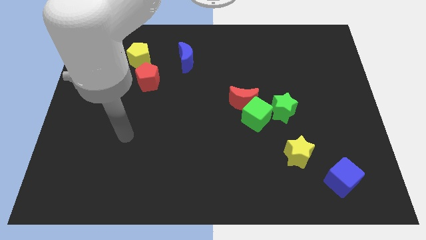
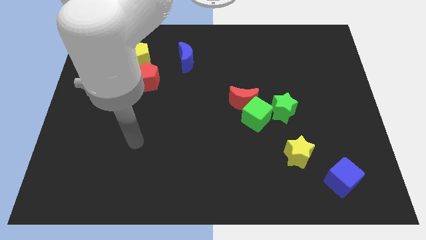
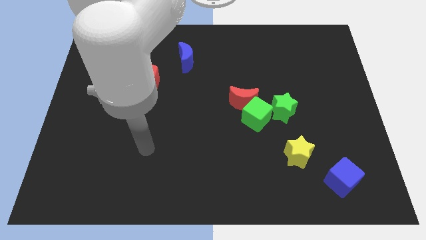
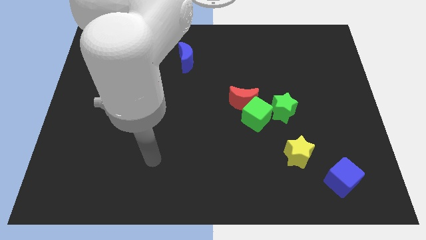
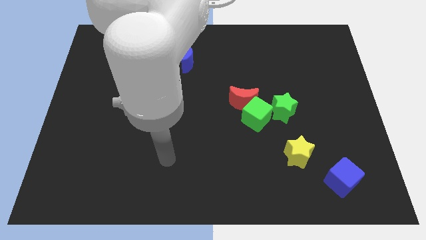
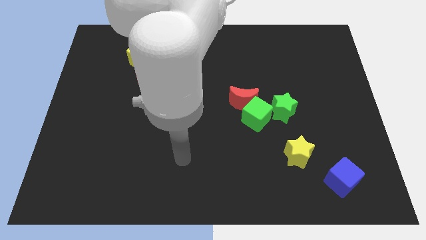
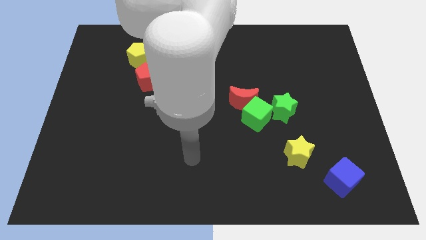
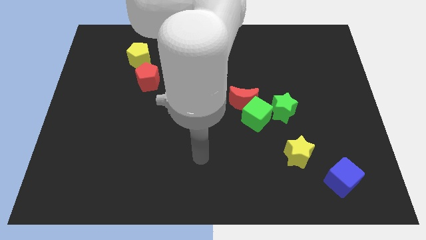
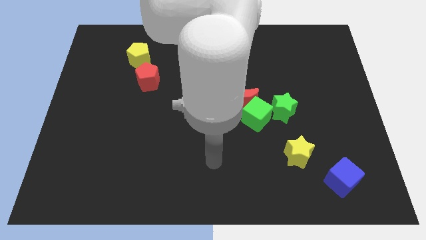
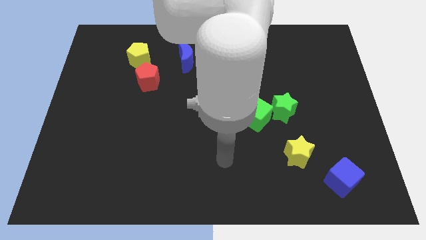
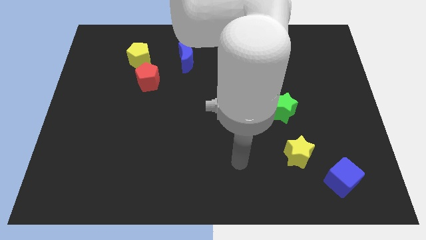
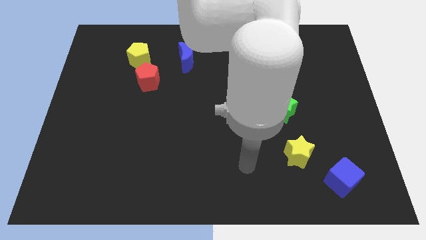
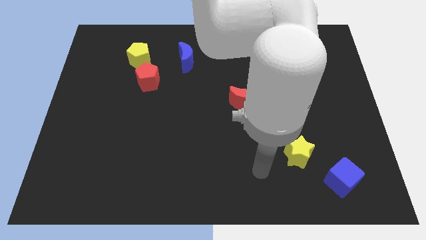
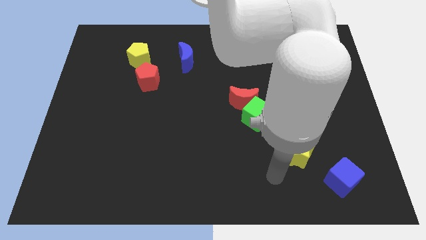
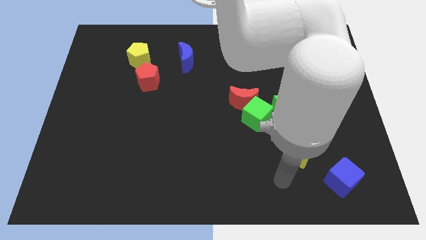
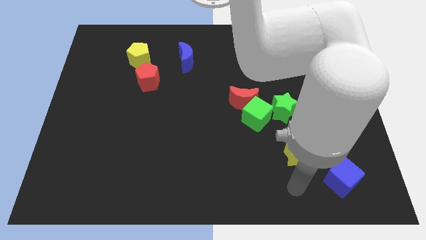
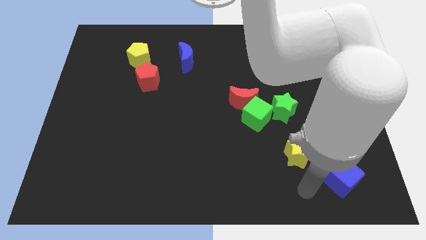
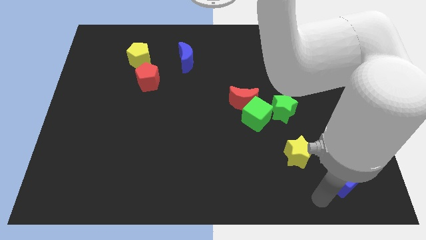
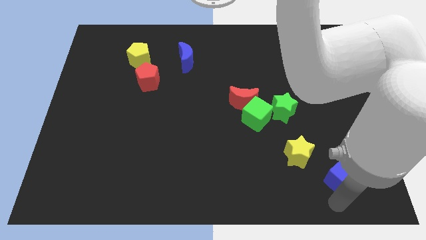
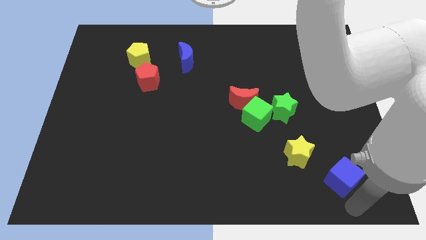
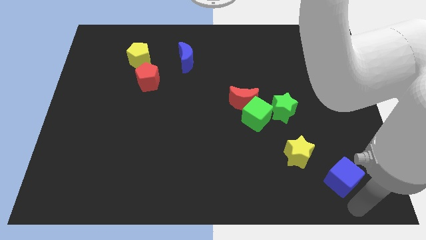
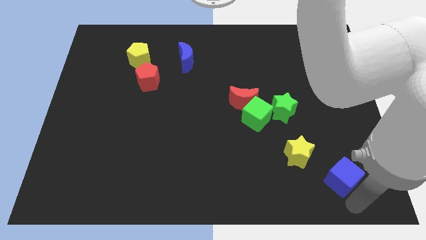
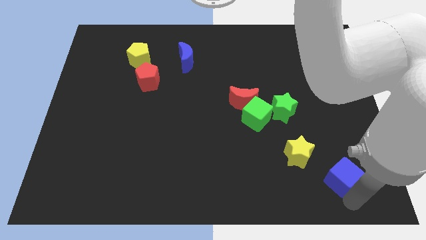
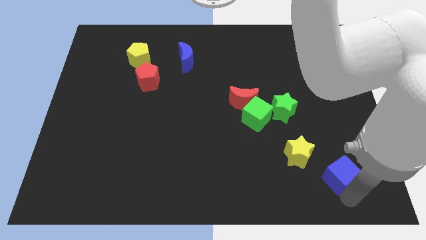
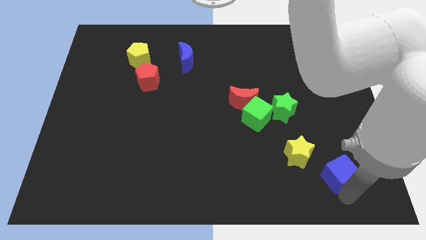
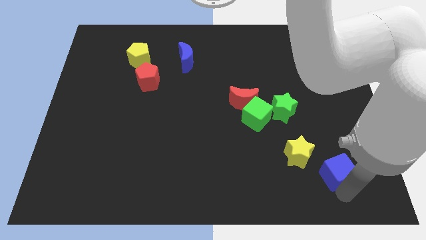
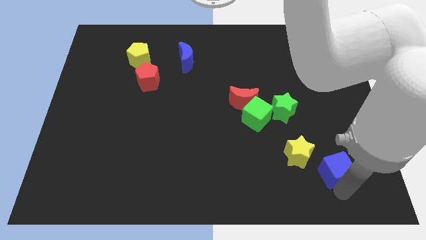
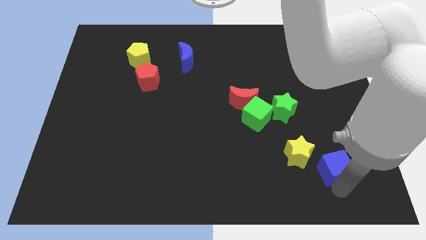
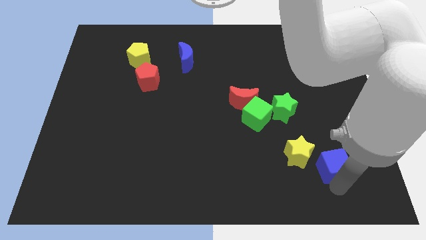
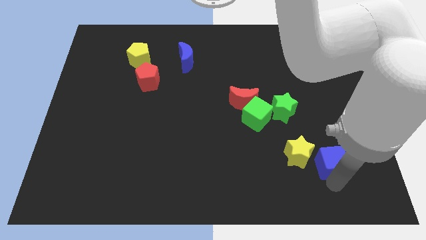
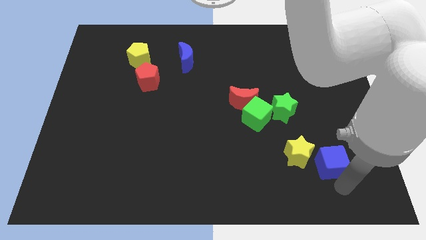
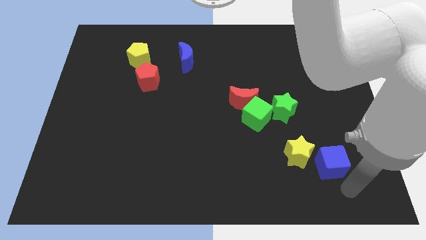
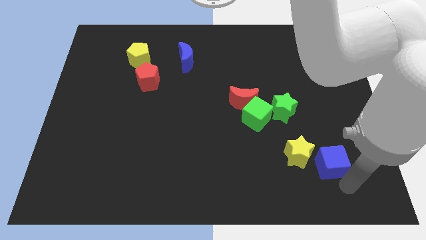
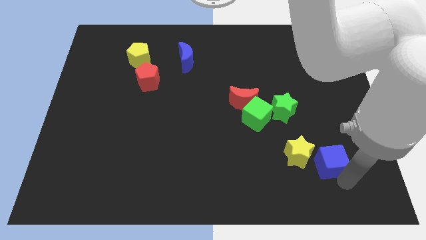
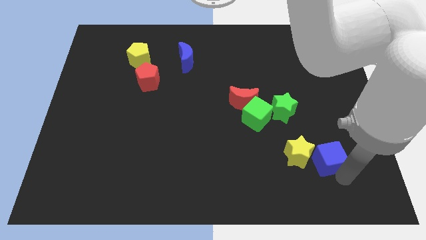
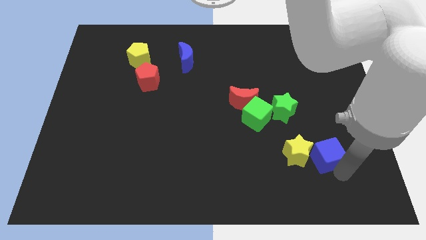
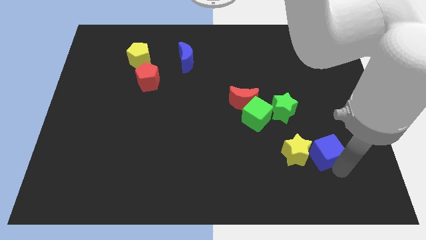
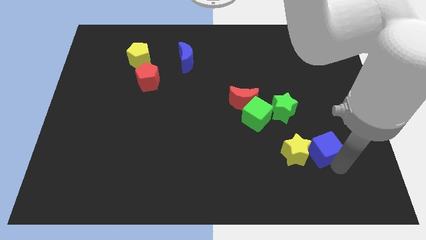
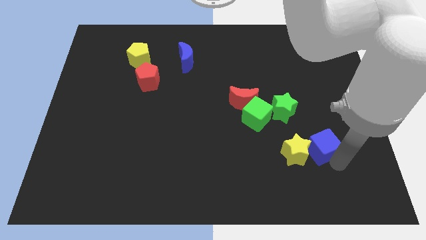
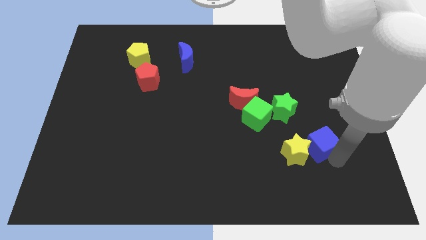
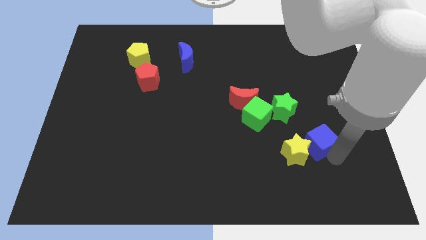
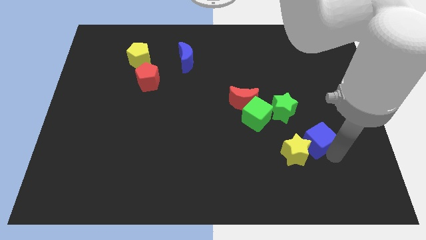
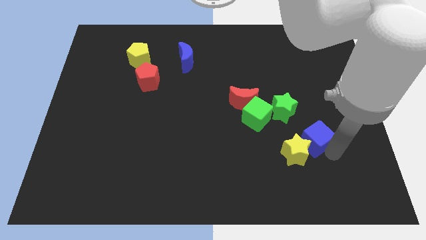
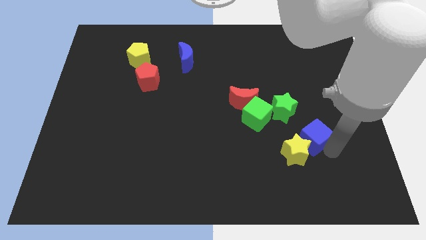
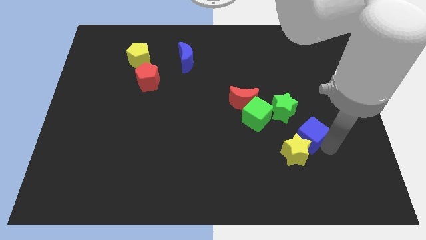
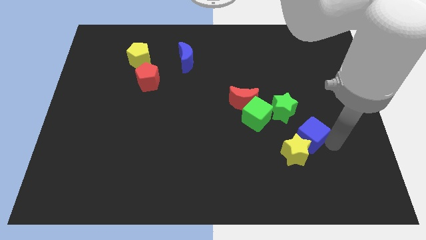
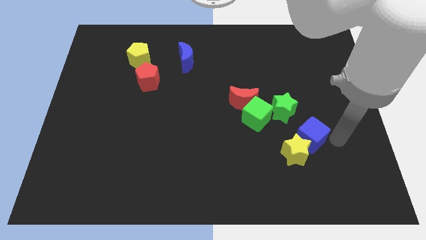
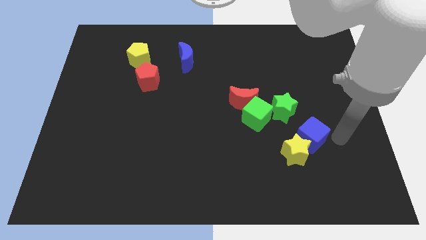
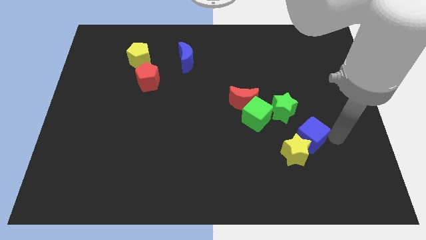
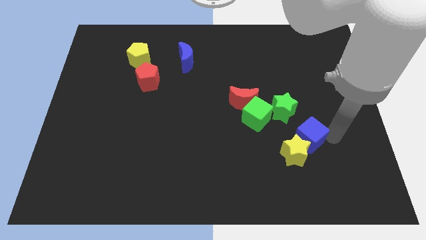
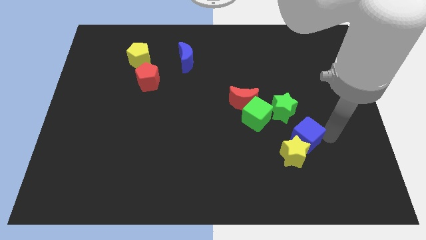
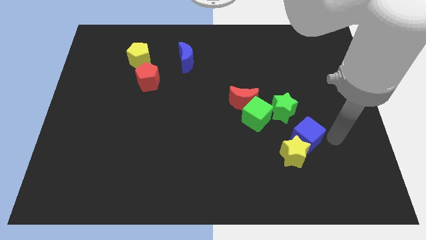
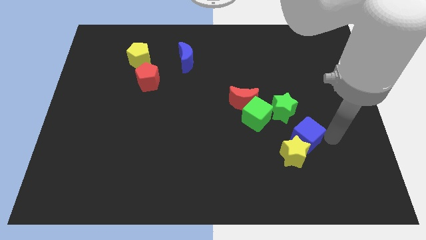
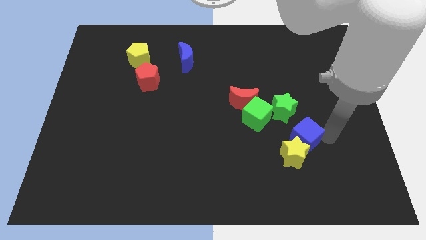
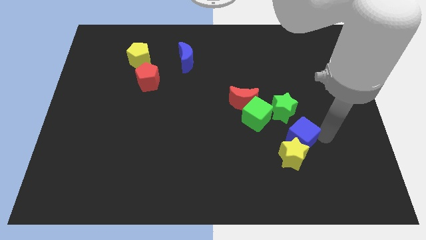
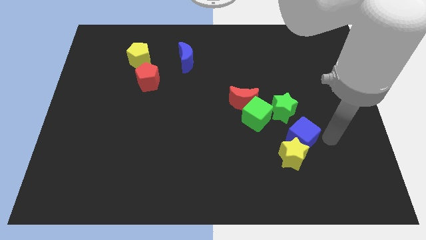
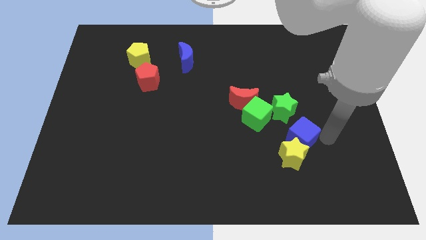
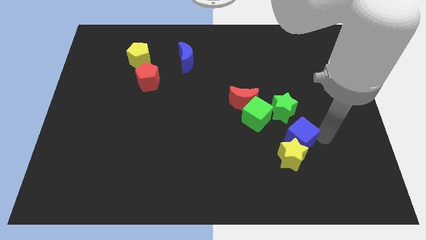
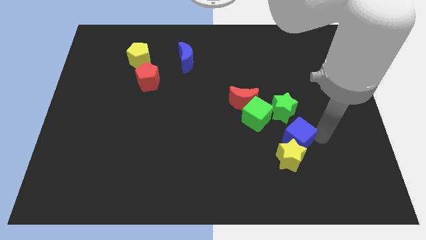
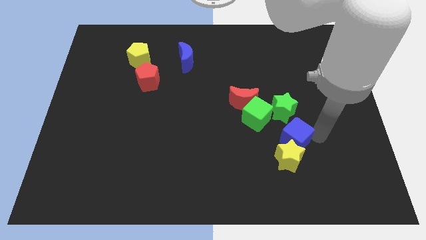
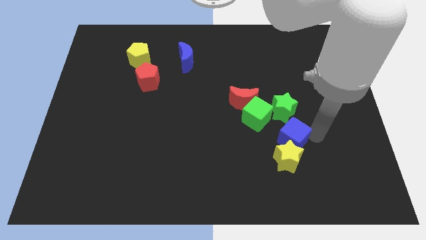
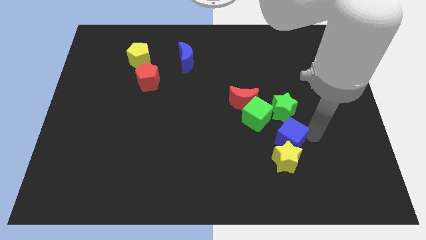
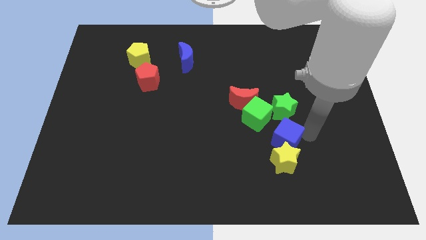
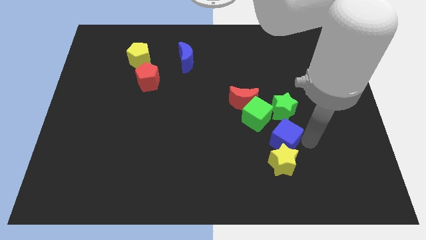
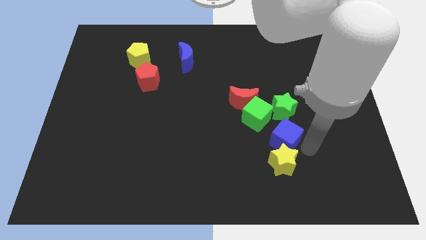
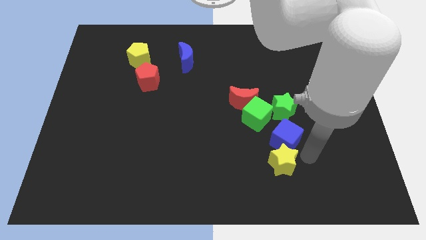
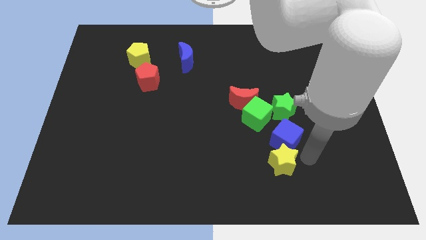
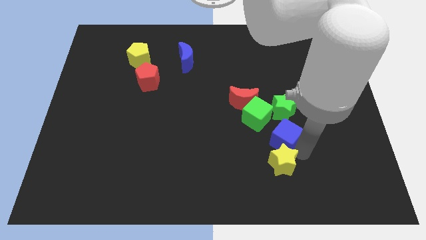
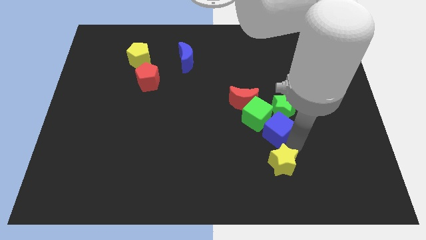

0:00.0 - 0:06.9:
push the blue cube towards the green cube

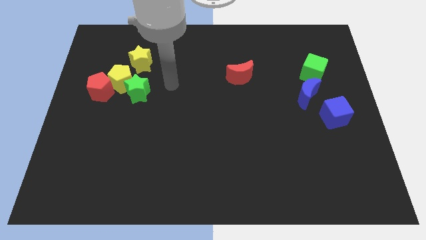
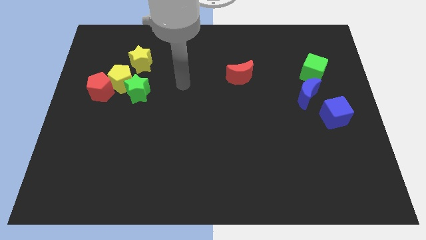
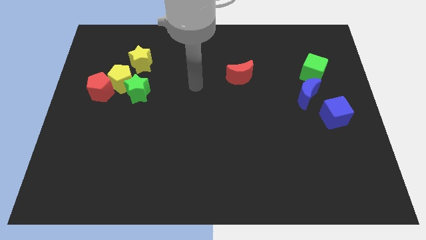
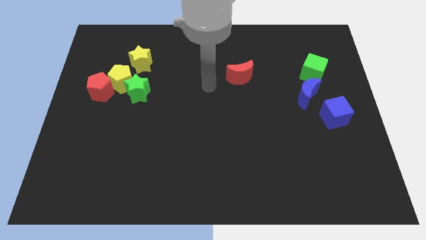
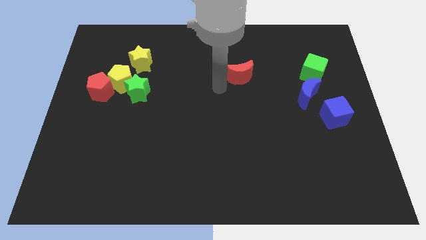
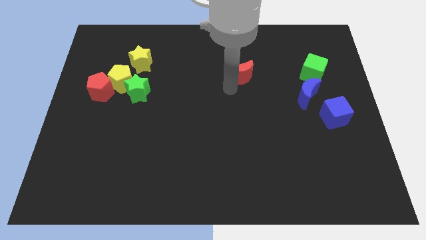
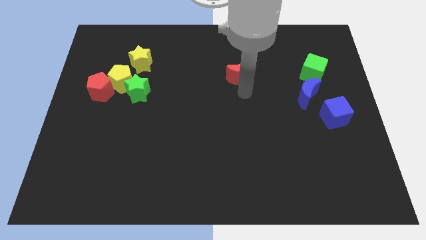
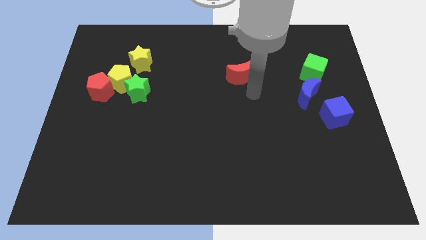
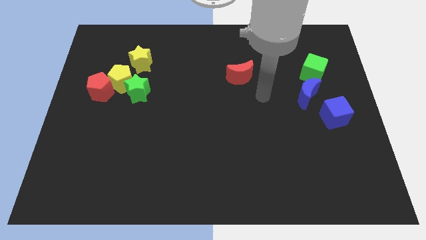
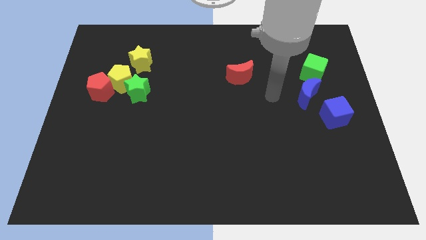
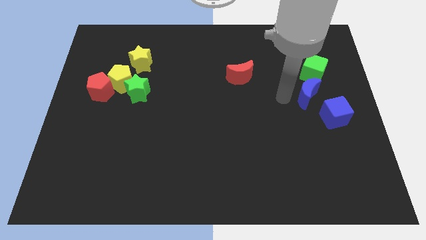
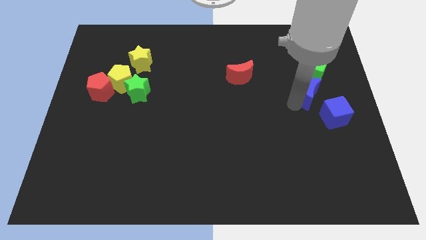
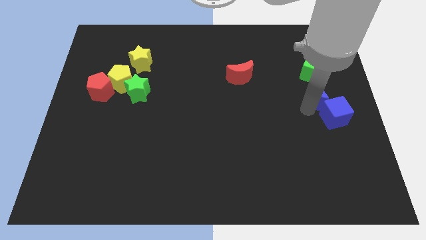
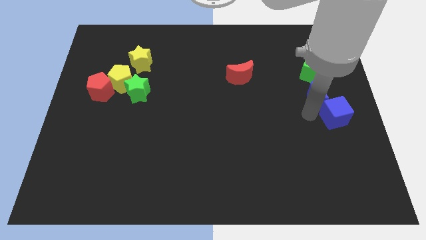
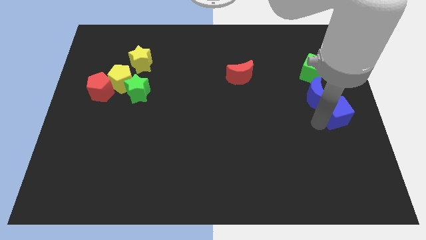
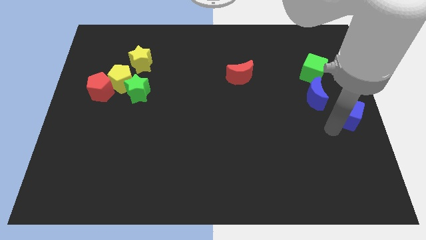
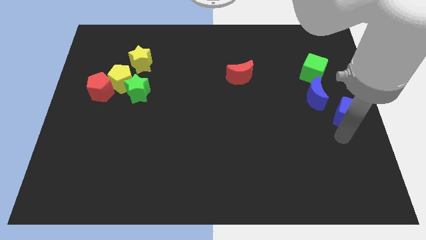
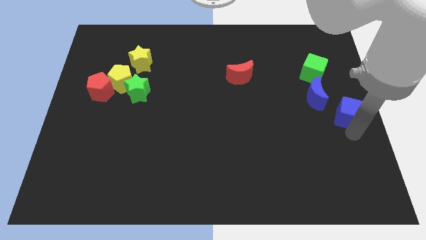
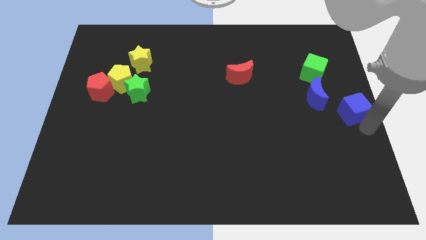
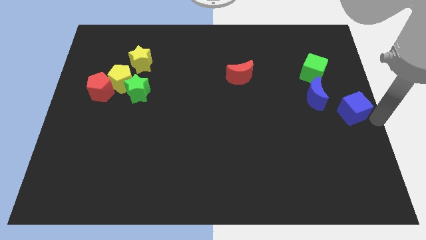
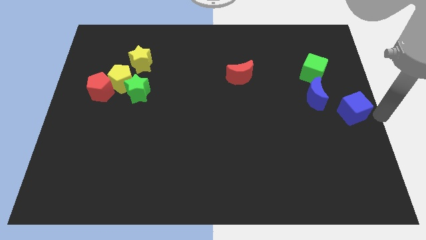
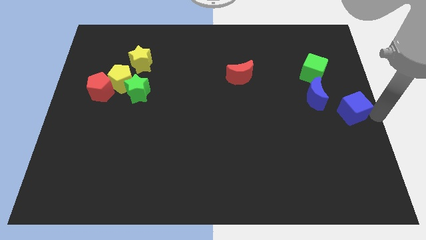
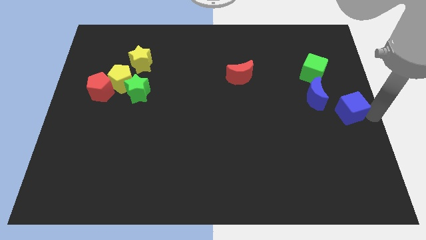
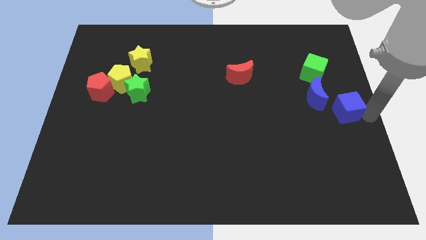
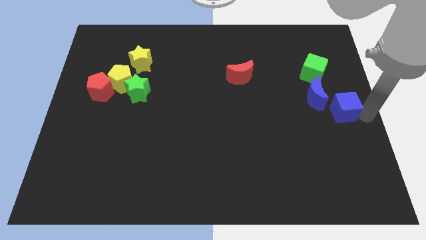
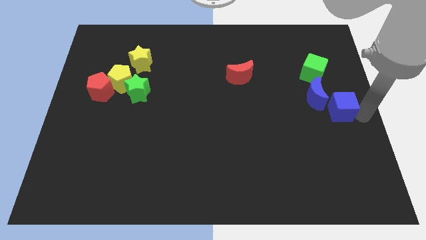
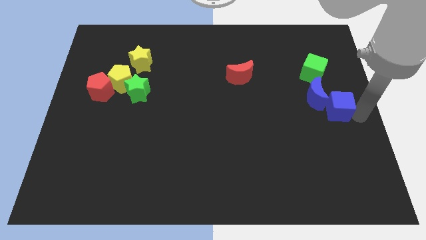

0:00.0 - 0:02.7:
move the blue cube to the blue moon
